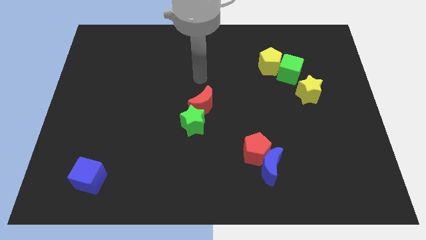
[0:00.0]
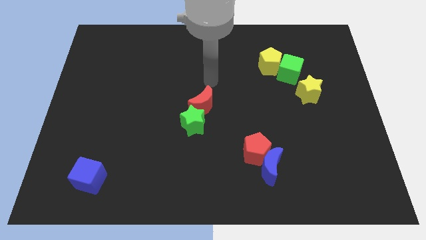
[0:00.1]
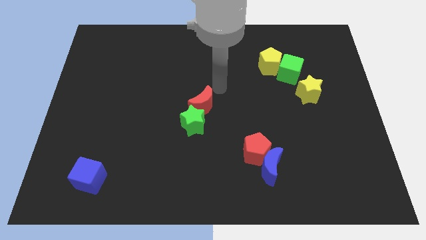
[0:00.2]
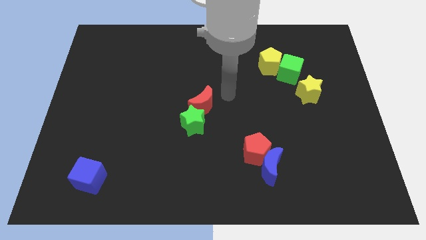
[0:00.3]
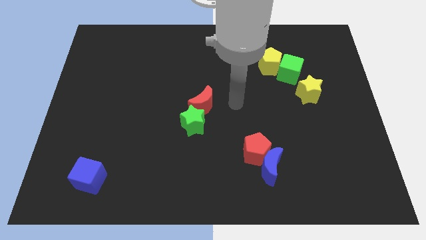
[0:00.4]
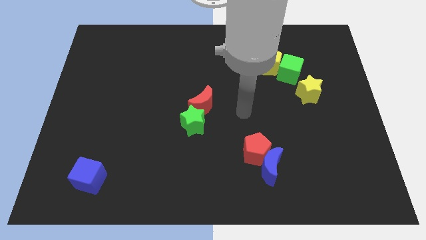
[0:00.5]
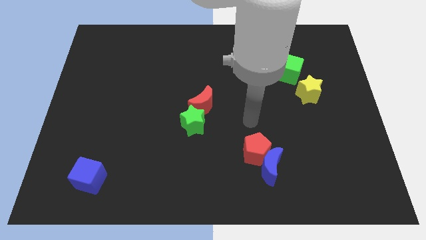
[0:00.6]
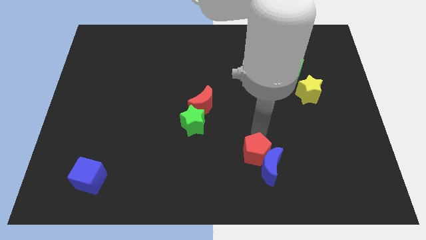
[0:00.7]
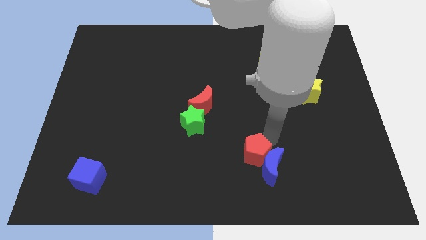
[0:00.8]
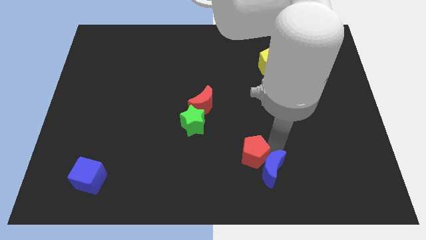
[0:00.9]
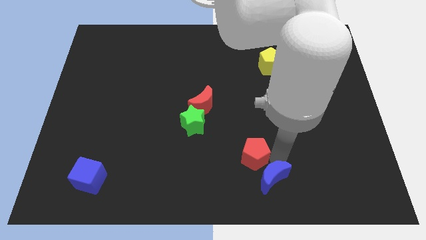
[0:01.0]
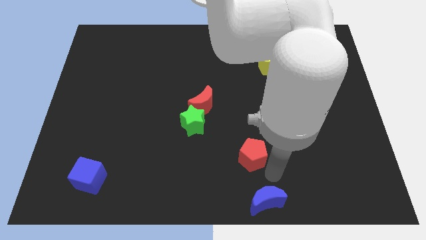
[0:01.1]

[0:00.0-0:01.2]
move the red pentagon away from the blue moon

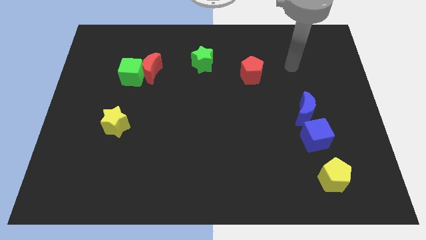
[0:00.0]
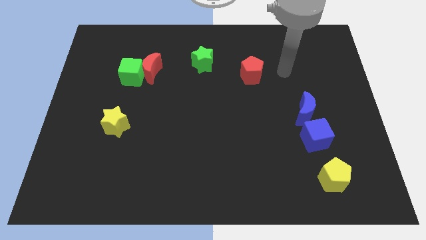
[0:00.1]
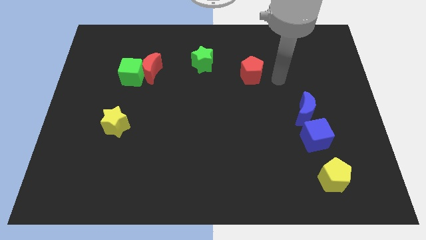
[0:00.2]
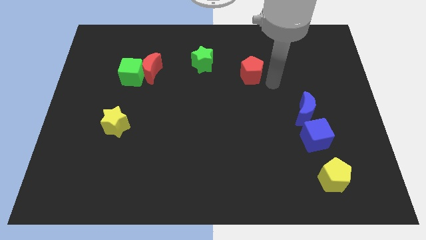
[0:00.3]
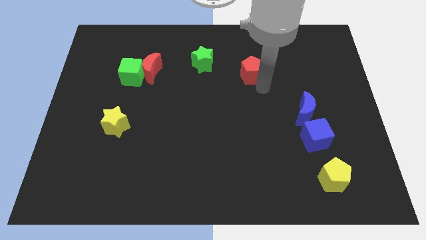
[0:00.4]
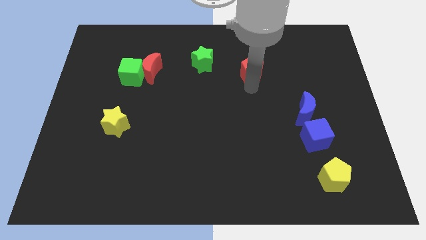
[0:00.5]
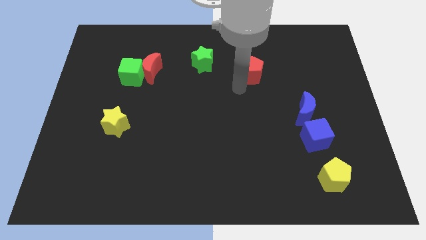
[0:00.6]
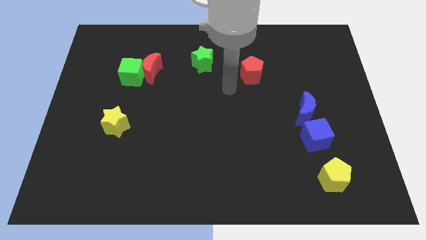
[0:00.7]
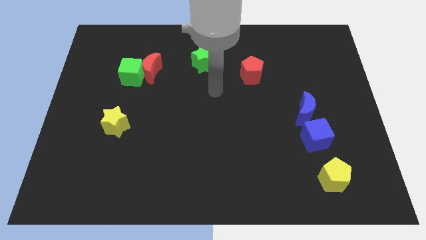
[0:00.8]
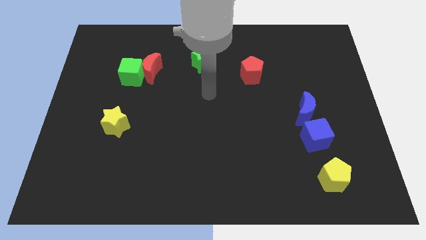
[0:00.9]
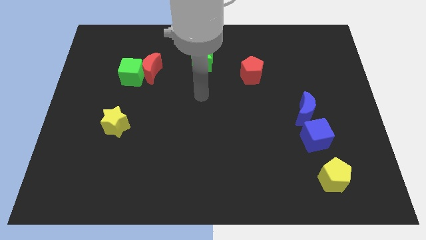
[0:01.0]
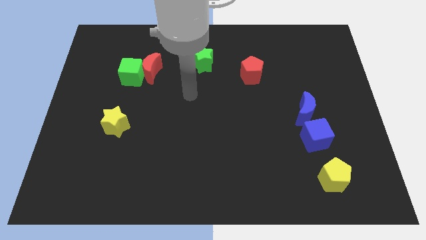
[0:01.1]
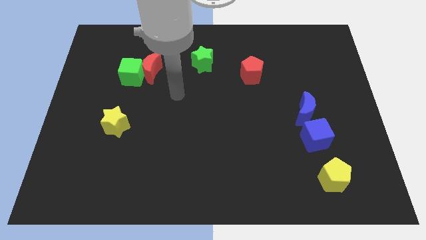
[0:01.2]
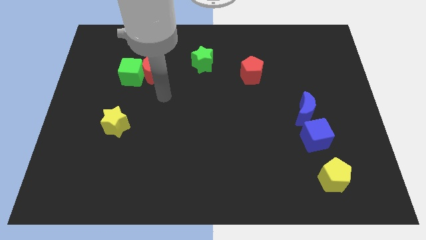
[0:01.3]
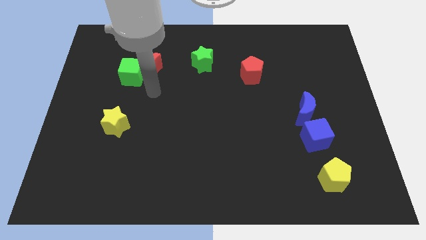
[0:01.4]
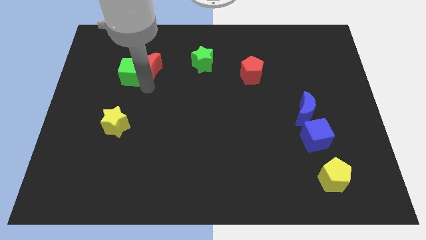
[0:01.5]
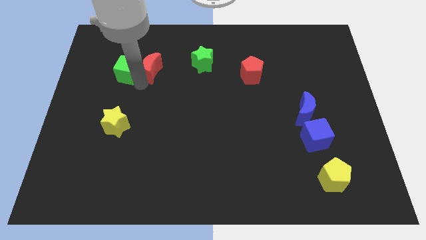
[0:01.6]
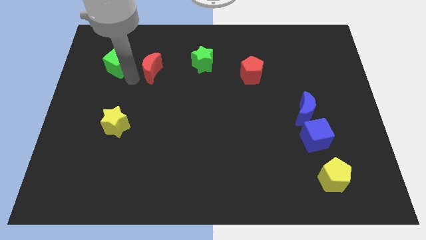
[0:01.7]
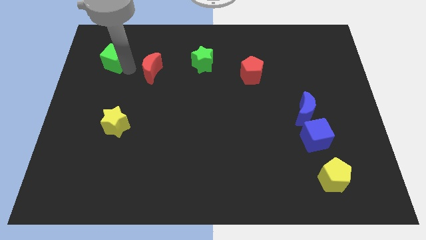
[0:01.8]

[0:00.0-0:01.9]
separate the red moon from the green cube

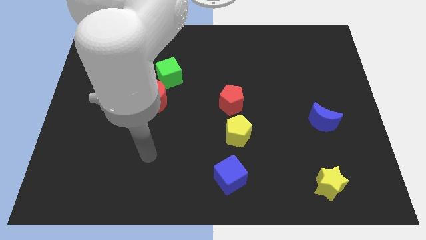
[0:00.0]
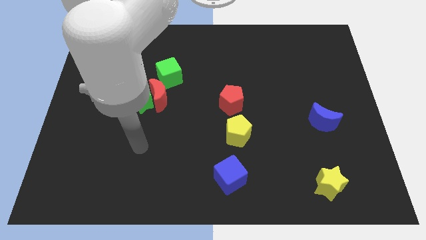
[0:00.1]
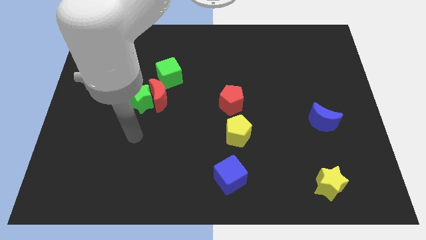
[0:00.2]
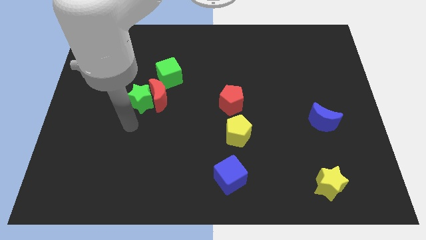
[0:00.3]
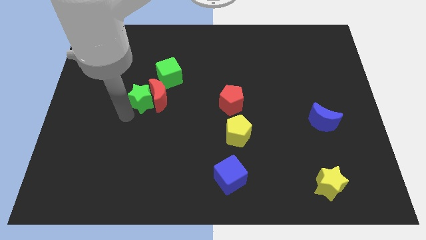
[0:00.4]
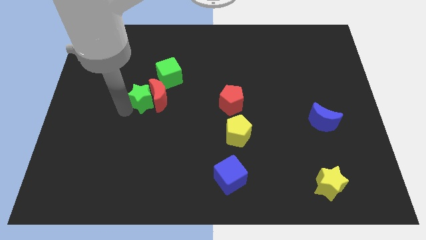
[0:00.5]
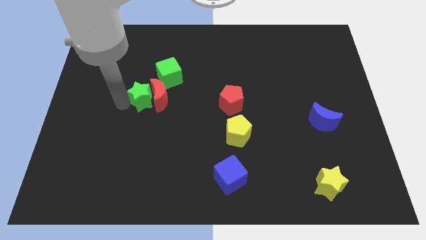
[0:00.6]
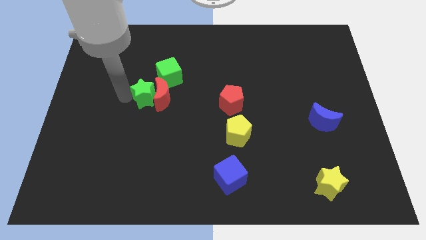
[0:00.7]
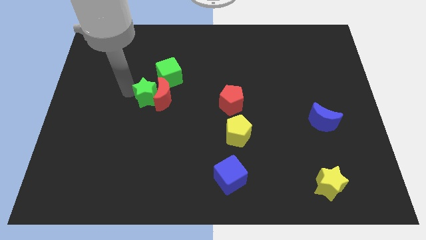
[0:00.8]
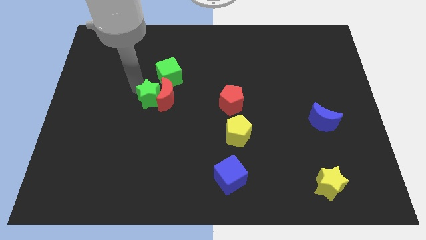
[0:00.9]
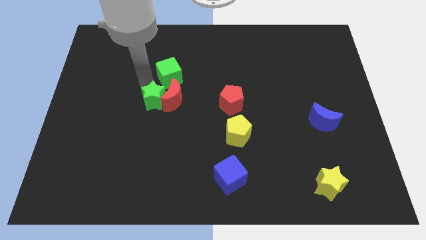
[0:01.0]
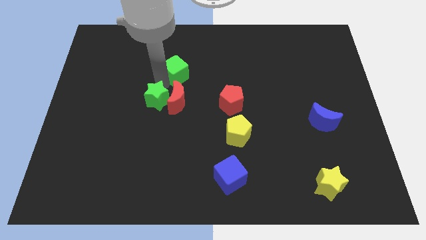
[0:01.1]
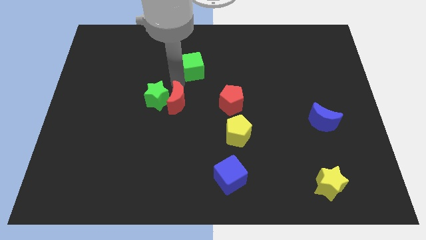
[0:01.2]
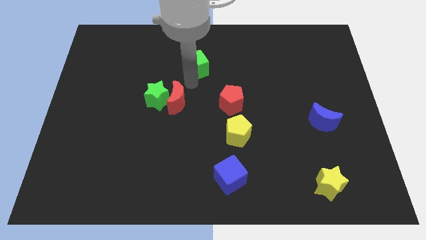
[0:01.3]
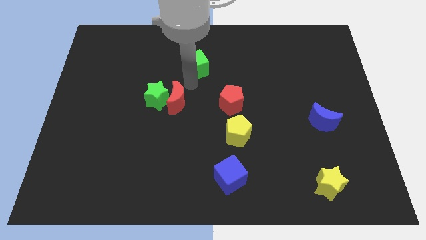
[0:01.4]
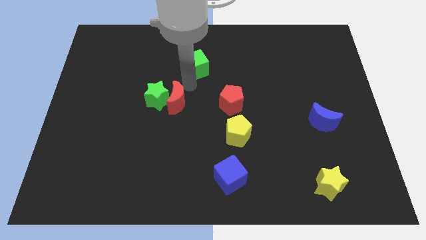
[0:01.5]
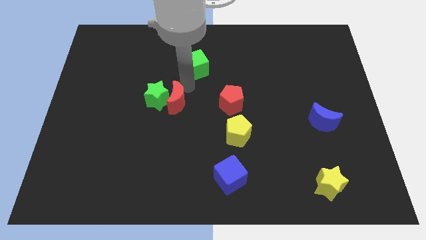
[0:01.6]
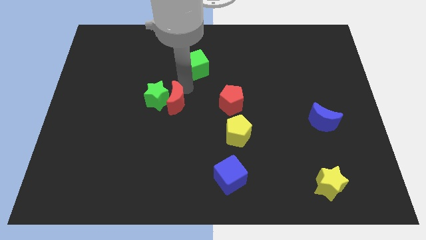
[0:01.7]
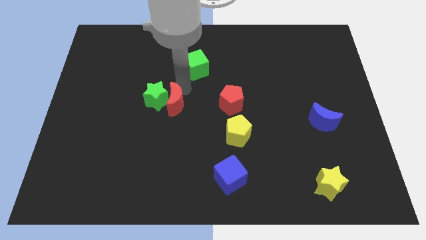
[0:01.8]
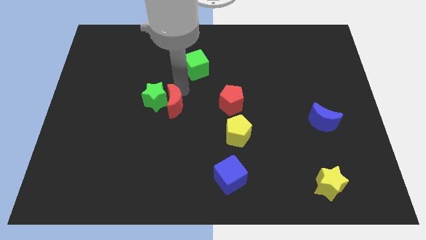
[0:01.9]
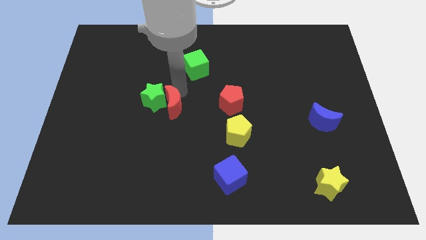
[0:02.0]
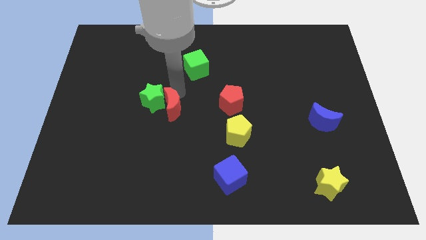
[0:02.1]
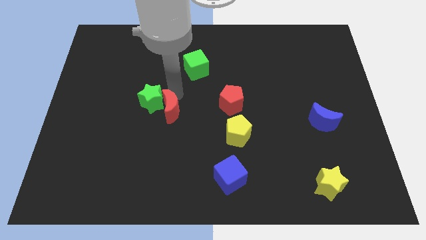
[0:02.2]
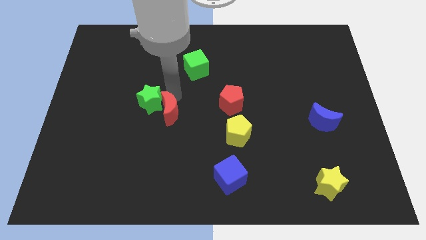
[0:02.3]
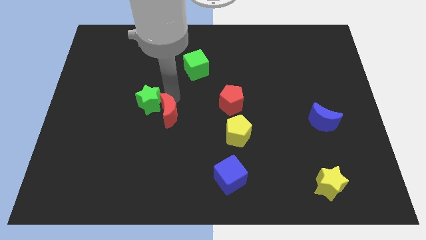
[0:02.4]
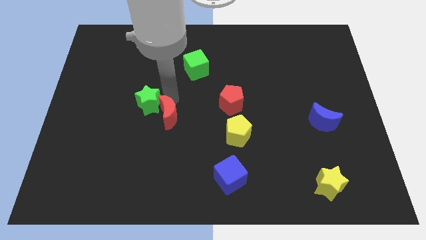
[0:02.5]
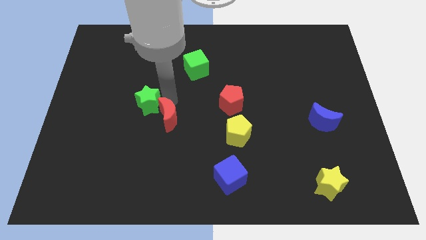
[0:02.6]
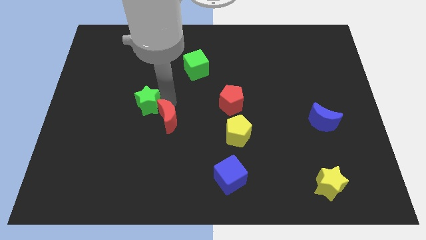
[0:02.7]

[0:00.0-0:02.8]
pull the red moon apart from the green star and green cube

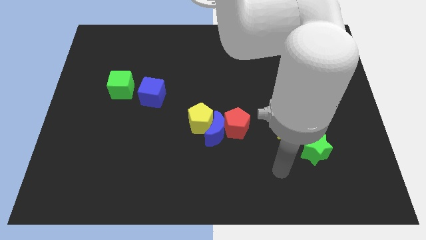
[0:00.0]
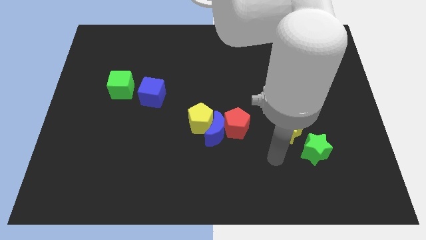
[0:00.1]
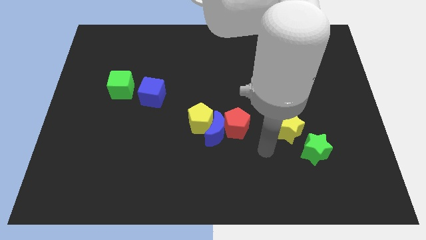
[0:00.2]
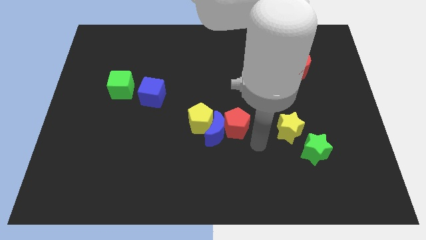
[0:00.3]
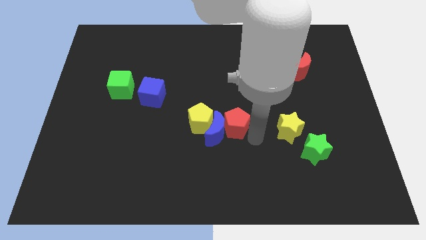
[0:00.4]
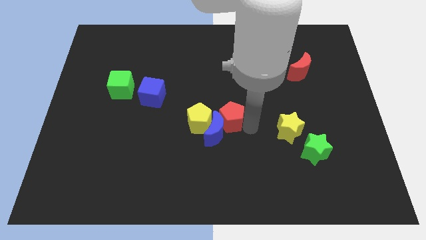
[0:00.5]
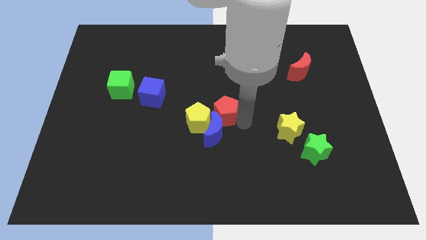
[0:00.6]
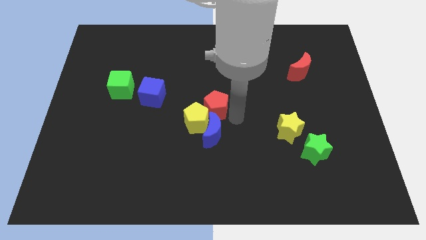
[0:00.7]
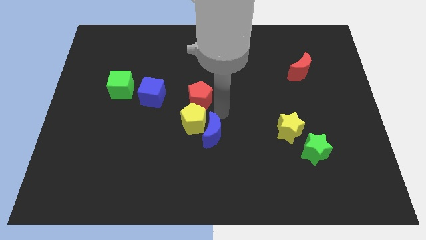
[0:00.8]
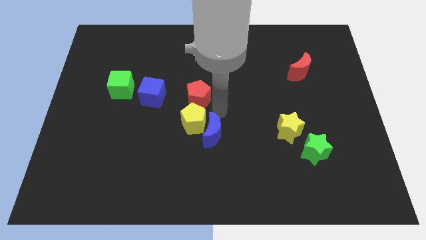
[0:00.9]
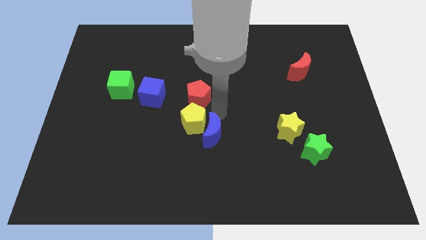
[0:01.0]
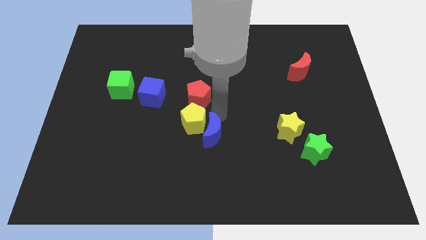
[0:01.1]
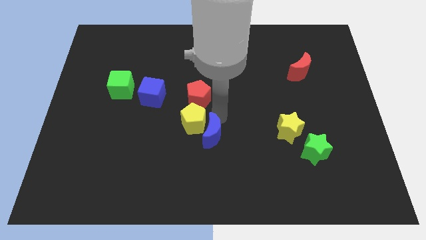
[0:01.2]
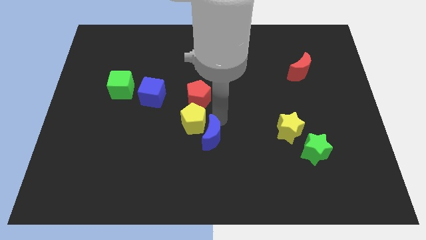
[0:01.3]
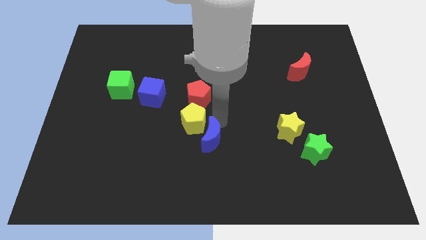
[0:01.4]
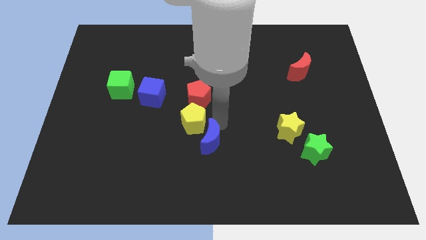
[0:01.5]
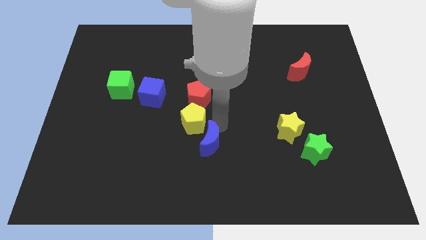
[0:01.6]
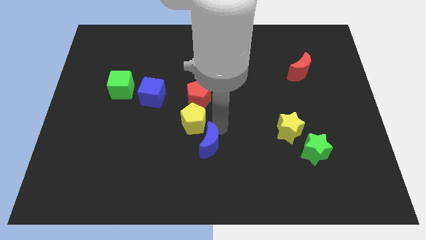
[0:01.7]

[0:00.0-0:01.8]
move the blue moon away from the red pentagon and yellow pentagon

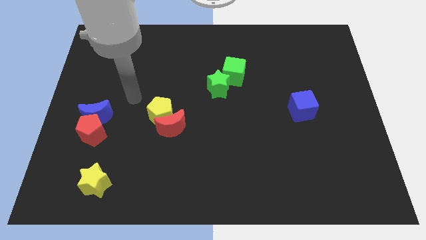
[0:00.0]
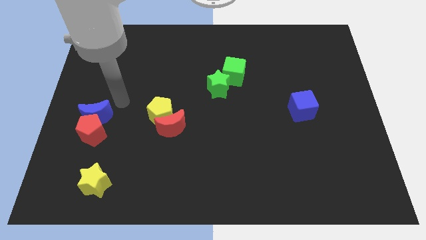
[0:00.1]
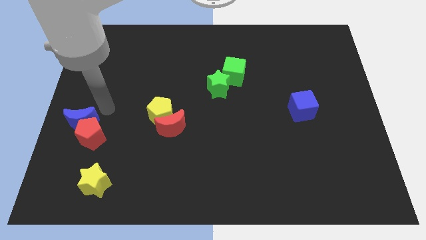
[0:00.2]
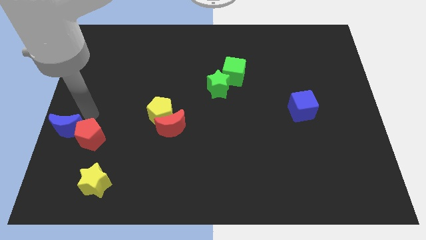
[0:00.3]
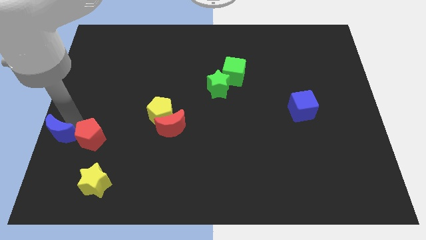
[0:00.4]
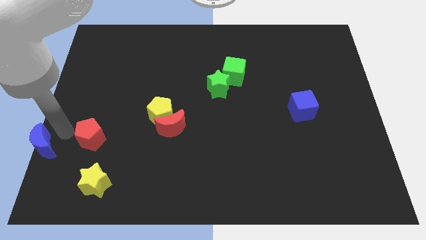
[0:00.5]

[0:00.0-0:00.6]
pull the red pentagon apart from the blue moon

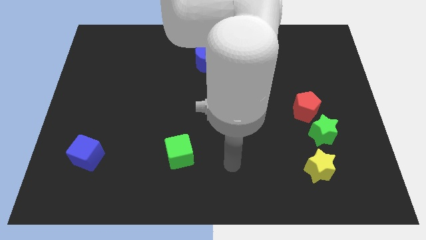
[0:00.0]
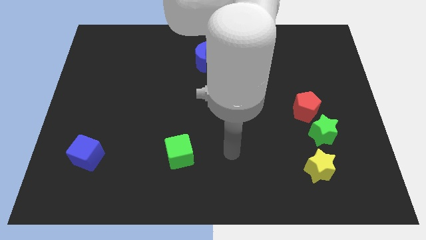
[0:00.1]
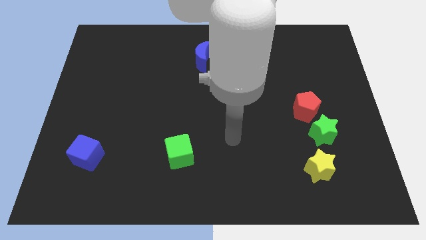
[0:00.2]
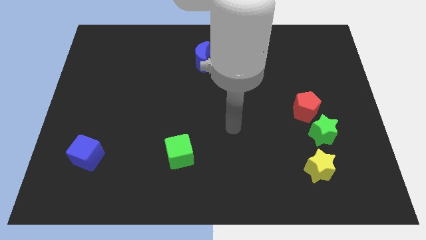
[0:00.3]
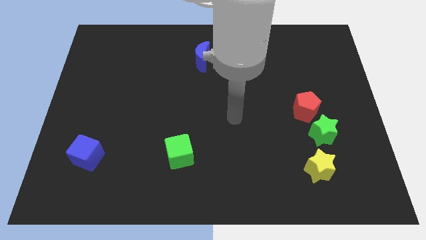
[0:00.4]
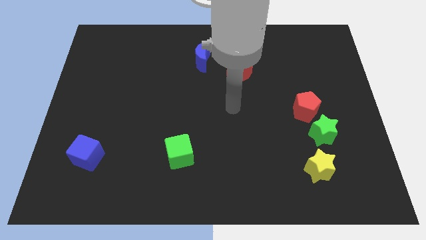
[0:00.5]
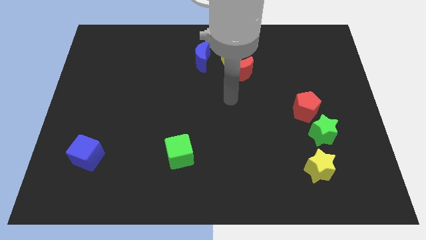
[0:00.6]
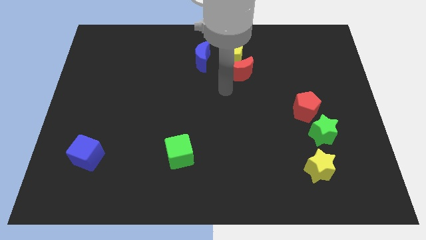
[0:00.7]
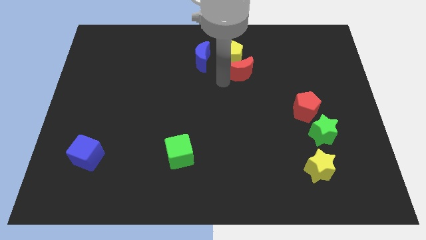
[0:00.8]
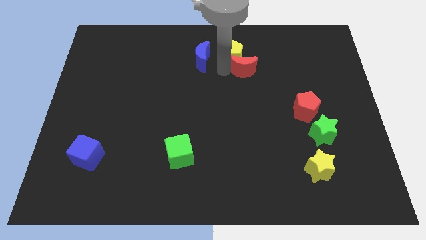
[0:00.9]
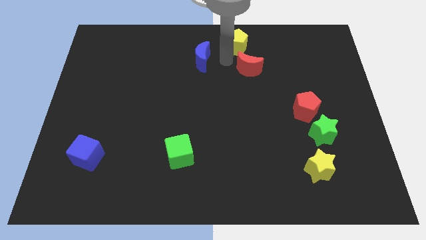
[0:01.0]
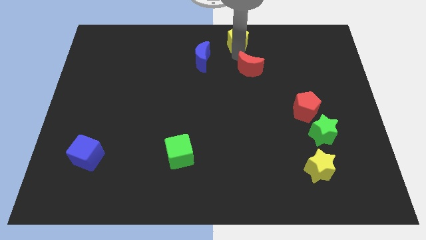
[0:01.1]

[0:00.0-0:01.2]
separate the red moon from the yellow pentagon
